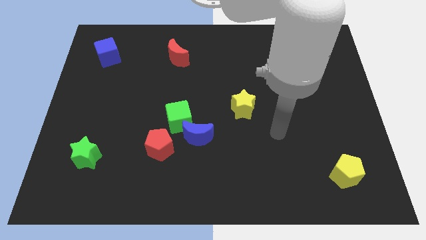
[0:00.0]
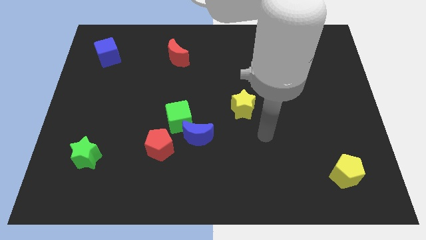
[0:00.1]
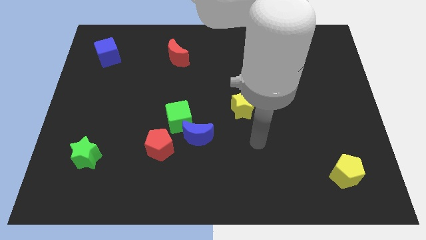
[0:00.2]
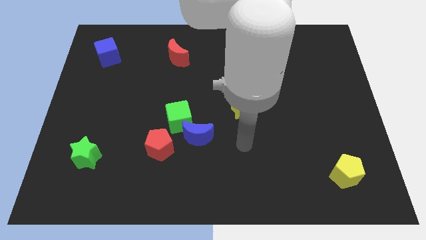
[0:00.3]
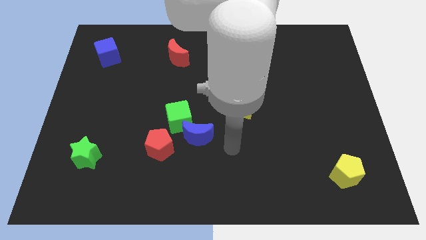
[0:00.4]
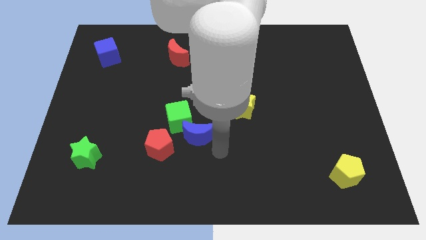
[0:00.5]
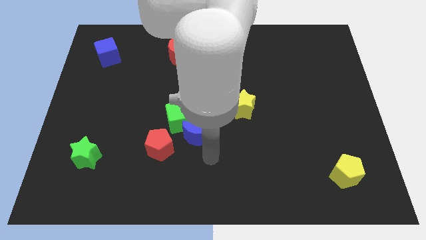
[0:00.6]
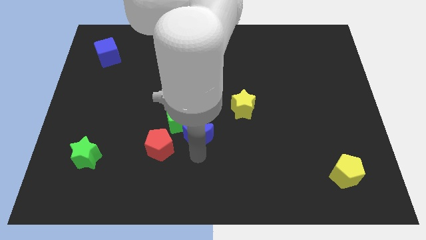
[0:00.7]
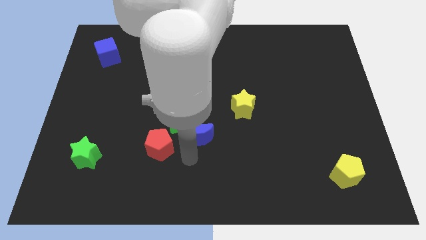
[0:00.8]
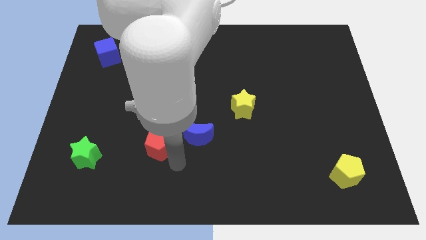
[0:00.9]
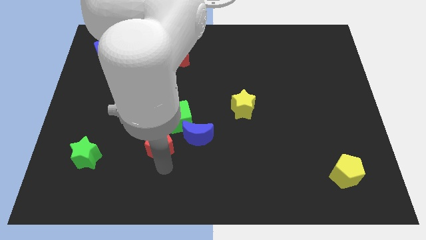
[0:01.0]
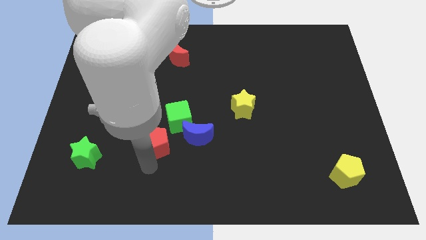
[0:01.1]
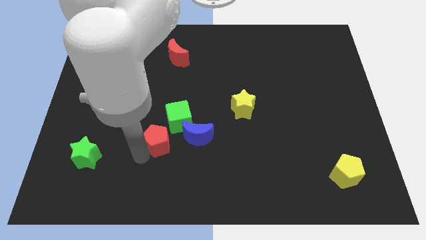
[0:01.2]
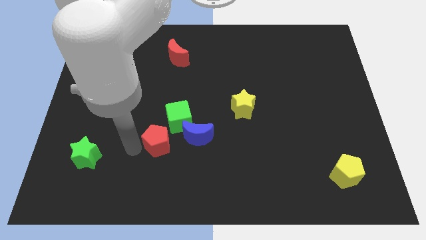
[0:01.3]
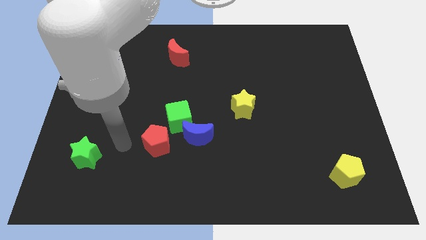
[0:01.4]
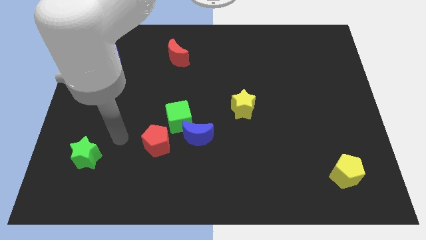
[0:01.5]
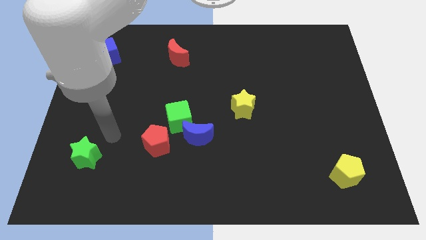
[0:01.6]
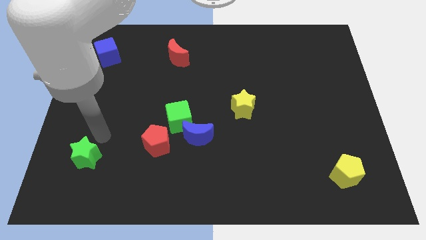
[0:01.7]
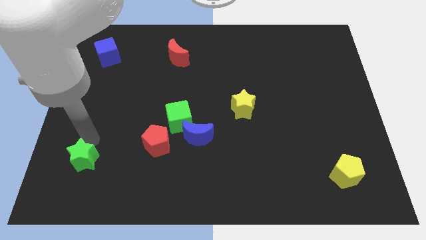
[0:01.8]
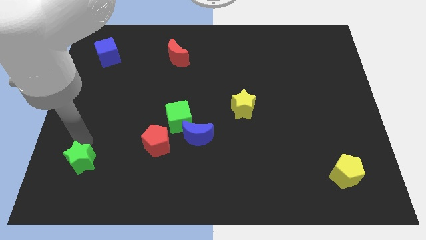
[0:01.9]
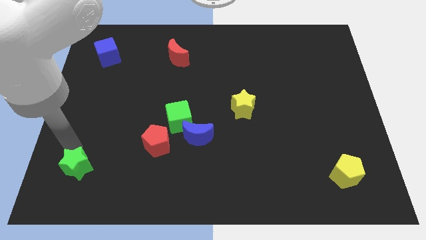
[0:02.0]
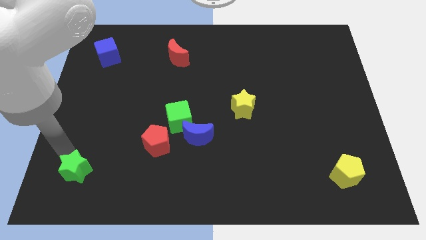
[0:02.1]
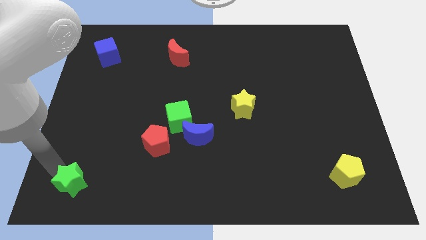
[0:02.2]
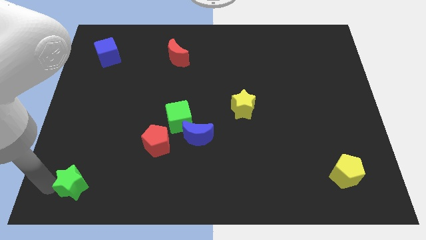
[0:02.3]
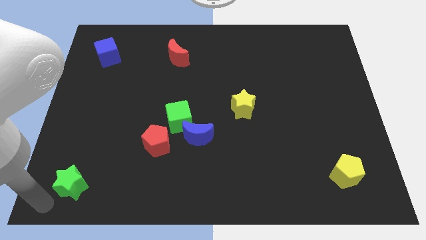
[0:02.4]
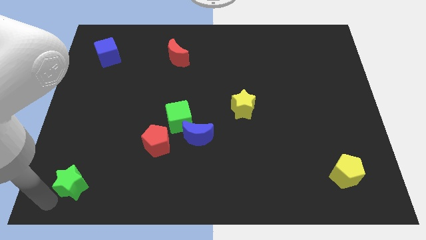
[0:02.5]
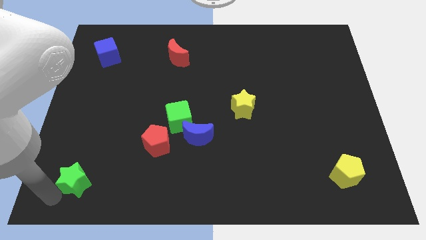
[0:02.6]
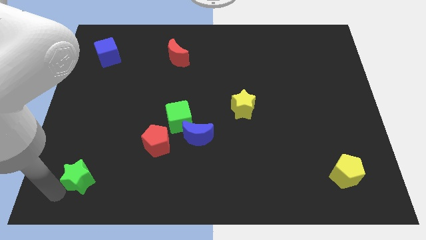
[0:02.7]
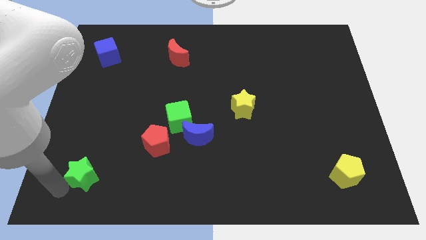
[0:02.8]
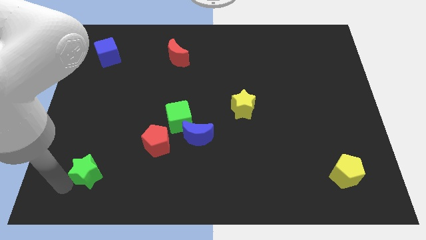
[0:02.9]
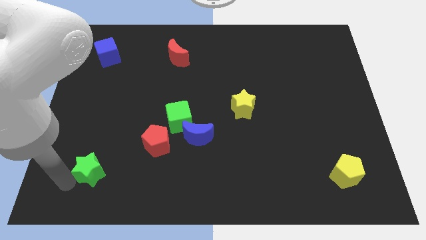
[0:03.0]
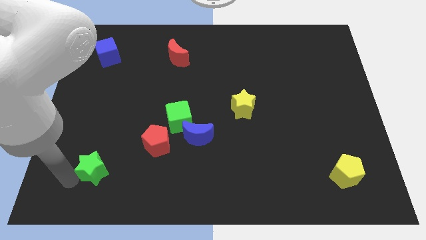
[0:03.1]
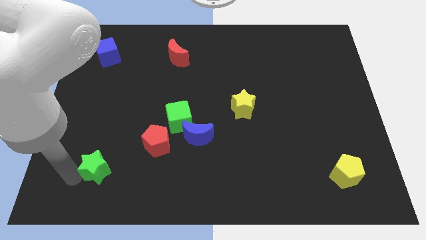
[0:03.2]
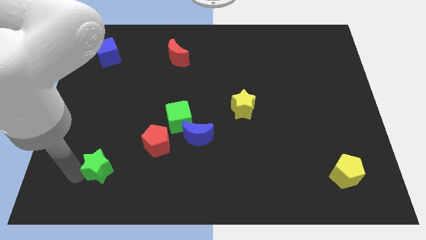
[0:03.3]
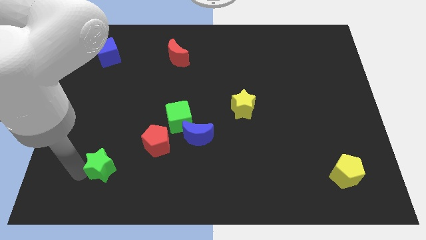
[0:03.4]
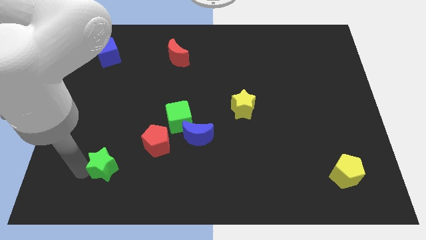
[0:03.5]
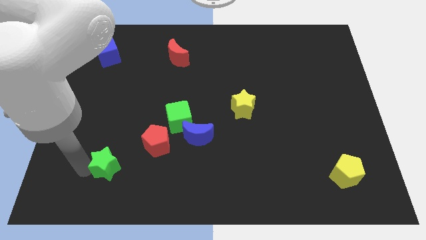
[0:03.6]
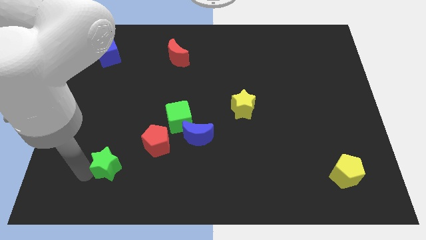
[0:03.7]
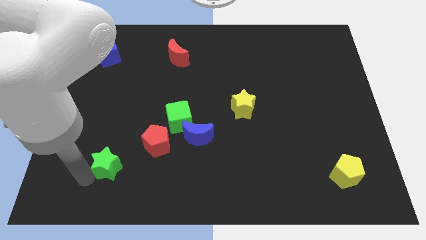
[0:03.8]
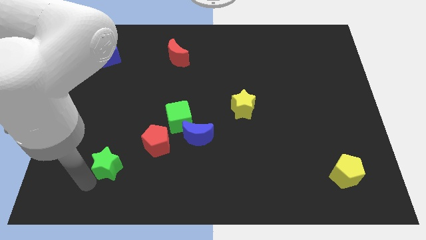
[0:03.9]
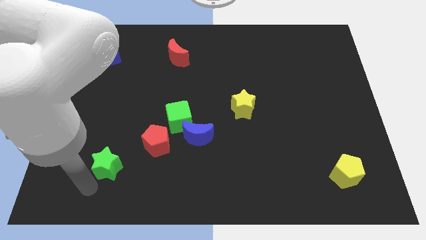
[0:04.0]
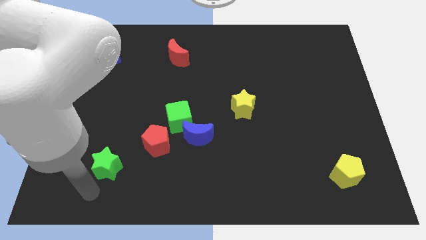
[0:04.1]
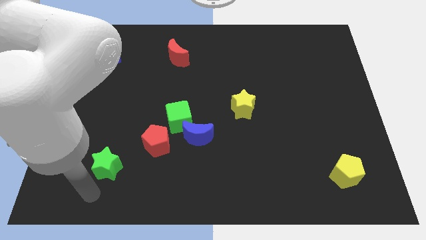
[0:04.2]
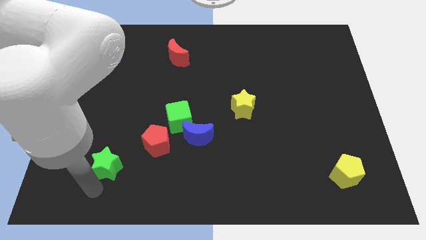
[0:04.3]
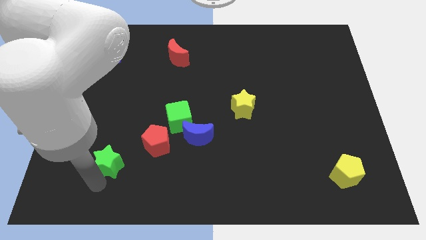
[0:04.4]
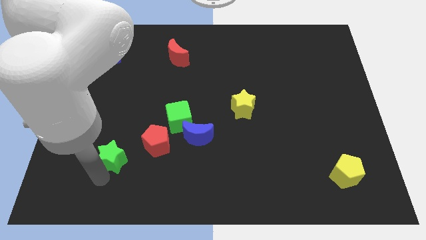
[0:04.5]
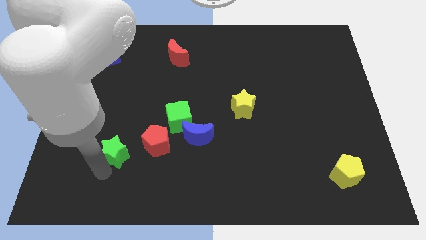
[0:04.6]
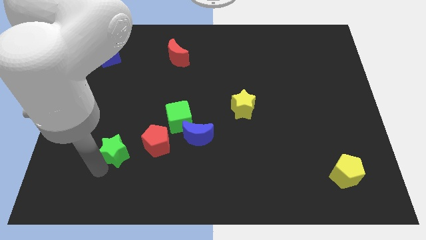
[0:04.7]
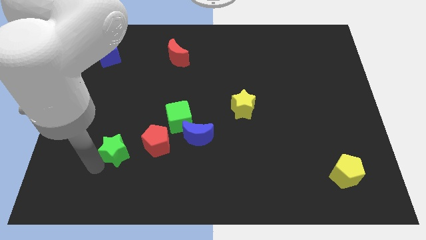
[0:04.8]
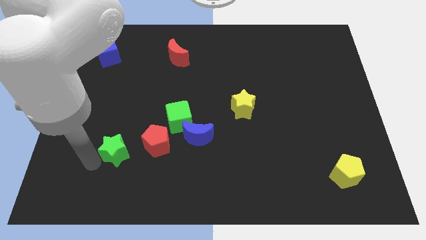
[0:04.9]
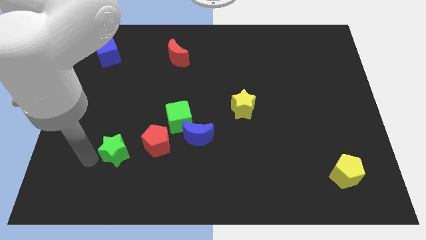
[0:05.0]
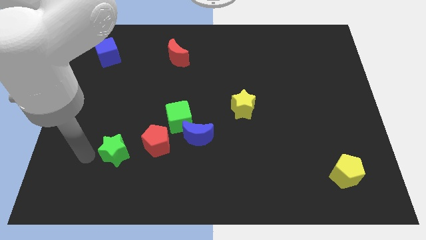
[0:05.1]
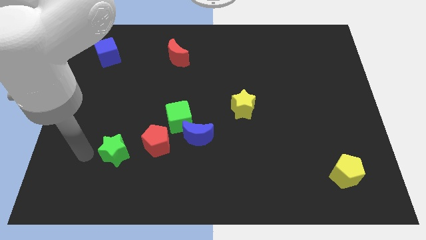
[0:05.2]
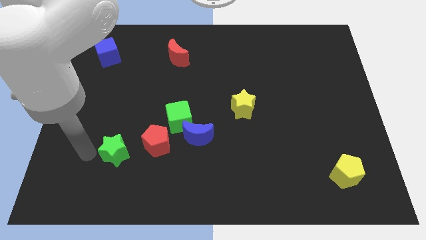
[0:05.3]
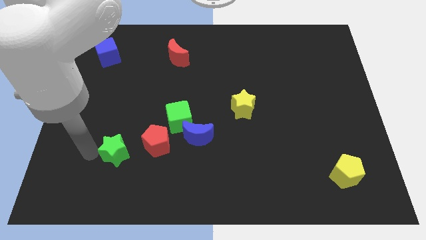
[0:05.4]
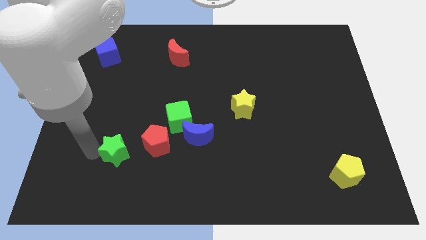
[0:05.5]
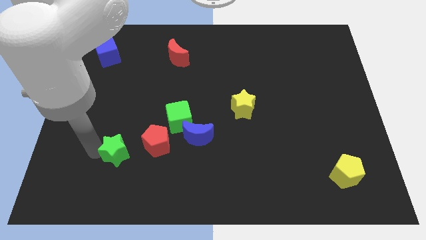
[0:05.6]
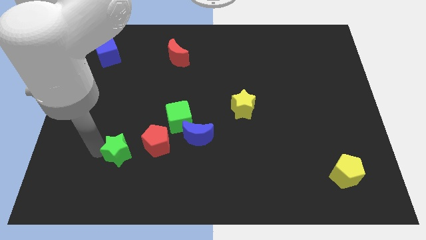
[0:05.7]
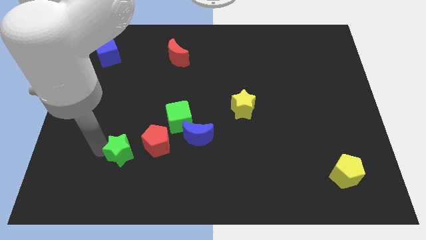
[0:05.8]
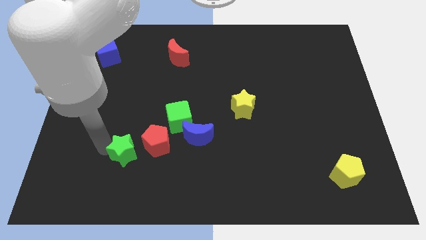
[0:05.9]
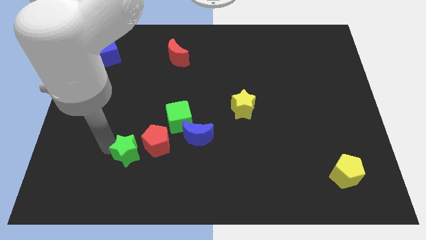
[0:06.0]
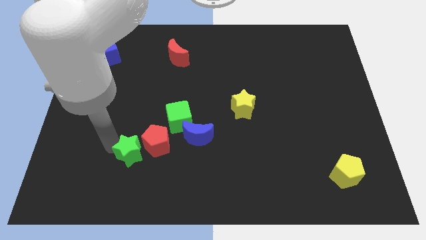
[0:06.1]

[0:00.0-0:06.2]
move the green star towards the red pentagon

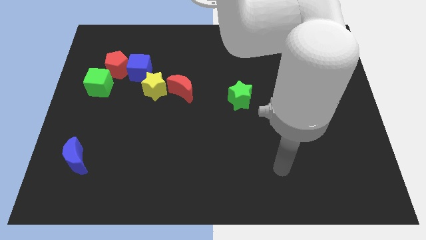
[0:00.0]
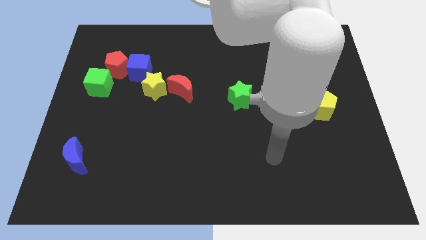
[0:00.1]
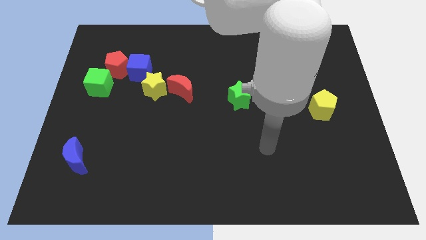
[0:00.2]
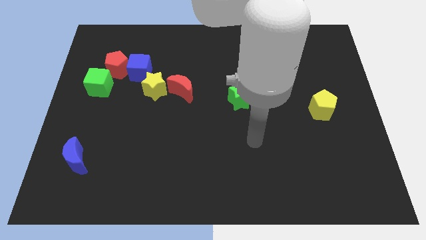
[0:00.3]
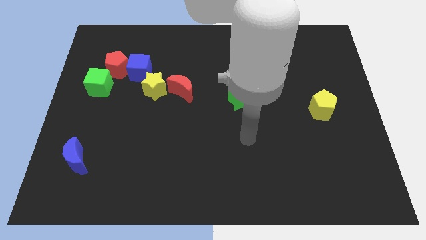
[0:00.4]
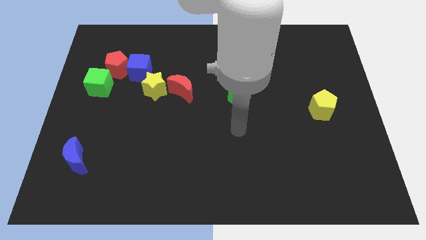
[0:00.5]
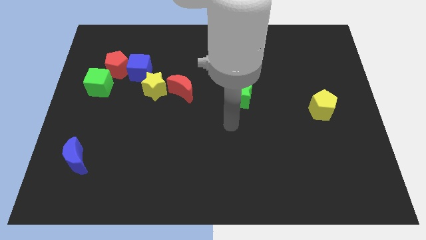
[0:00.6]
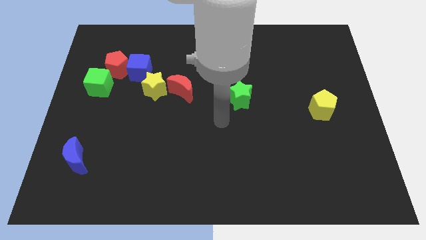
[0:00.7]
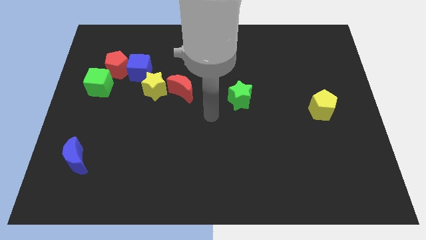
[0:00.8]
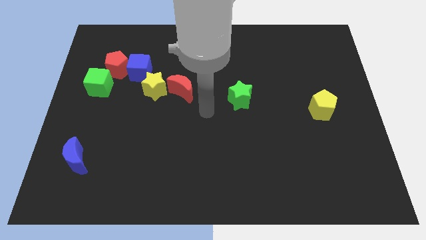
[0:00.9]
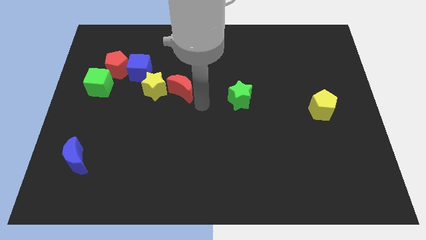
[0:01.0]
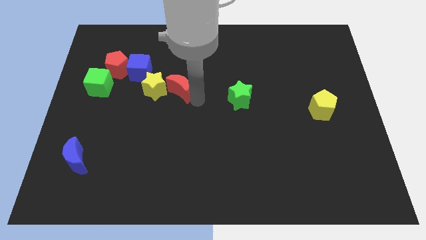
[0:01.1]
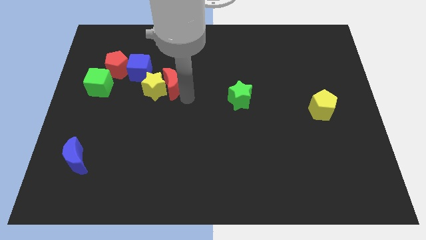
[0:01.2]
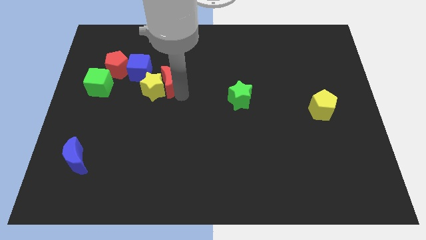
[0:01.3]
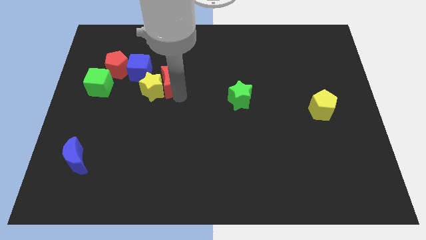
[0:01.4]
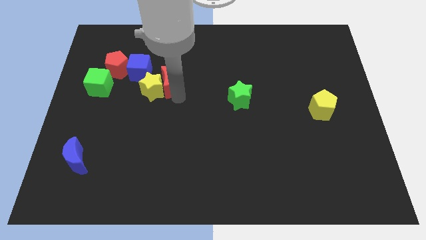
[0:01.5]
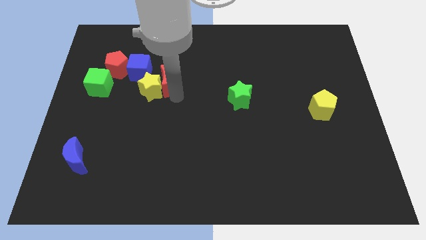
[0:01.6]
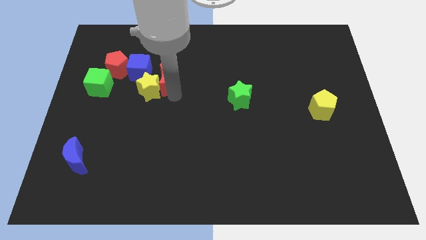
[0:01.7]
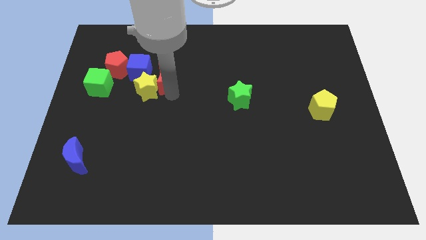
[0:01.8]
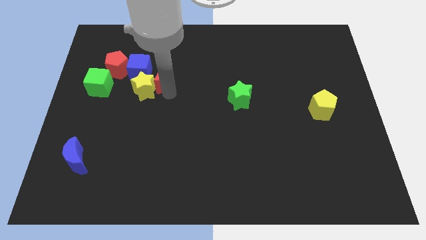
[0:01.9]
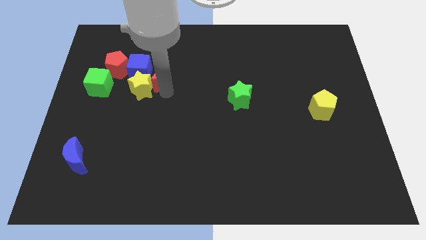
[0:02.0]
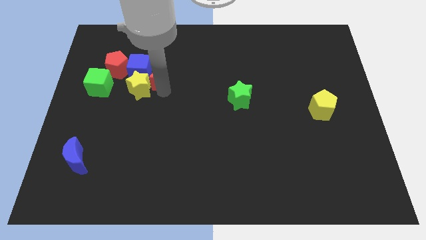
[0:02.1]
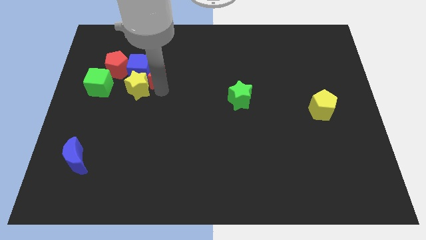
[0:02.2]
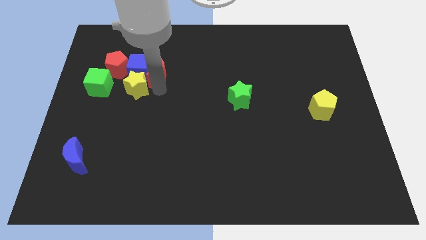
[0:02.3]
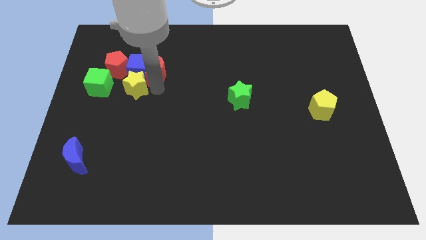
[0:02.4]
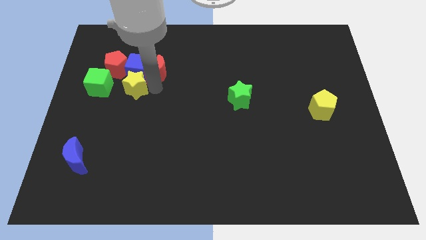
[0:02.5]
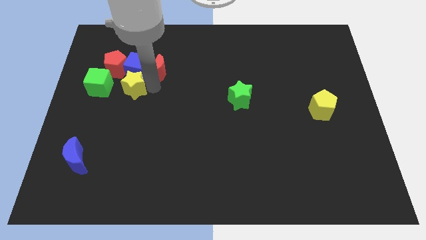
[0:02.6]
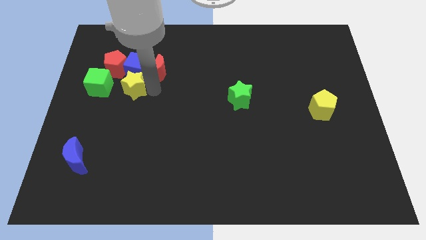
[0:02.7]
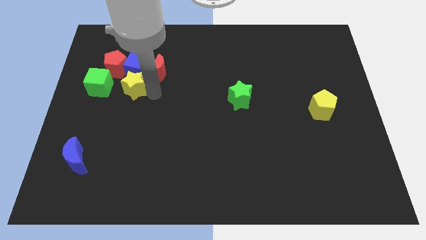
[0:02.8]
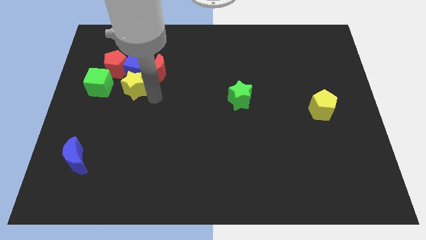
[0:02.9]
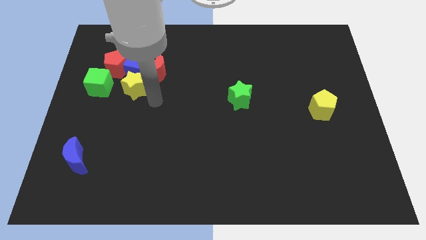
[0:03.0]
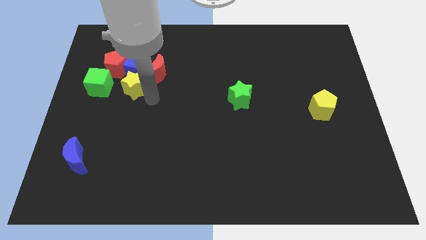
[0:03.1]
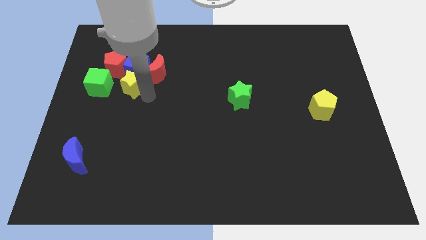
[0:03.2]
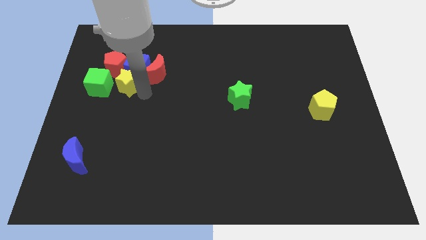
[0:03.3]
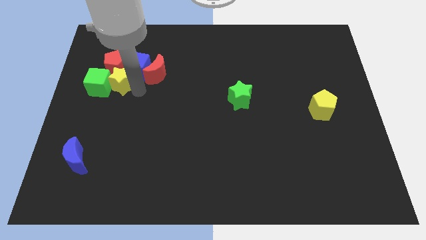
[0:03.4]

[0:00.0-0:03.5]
move the yellow star next to the red pentagon
